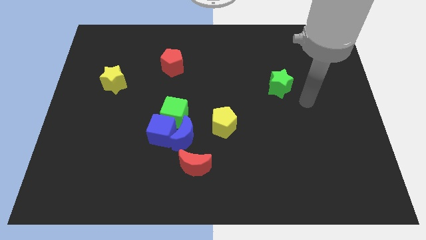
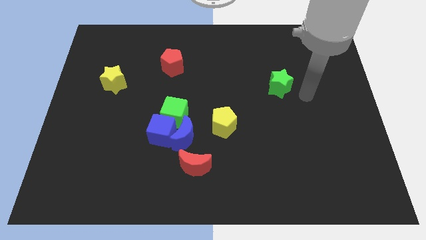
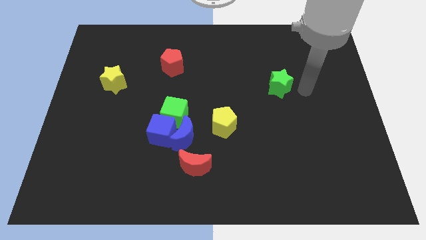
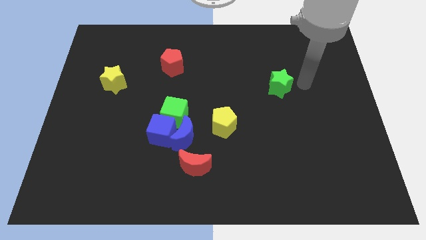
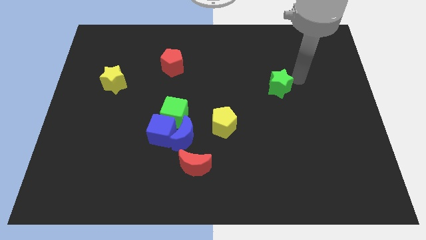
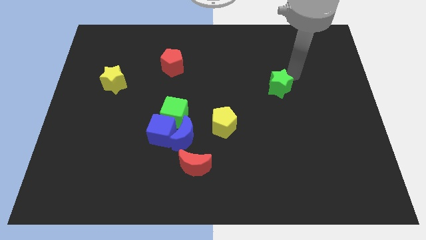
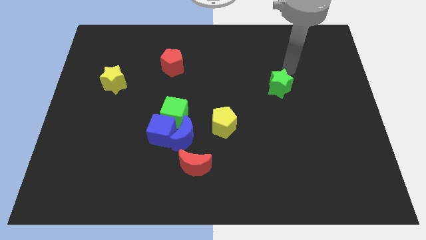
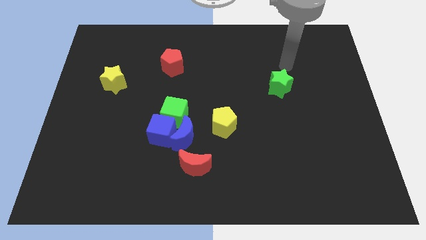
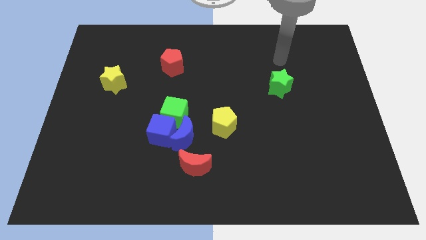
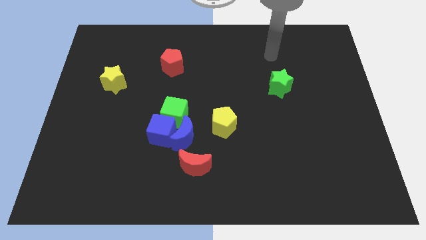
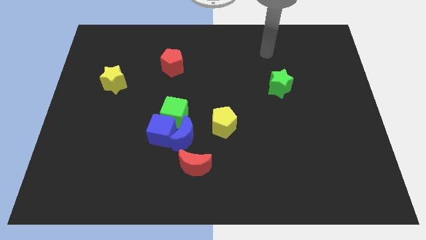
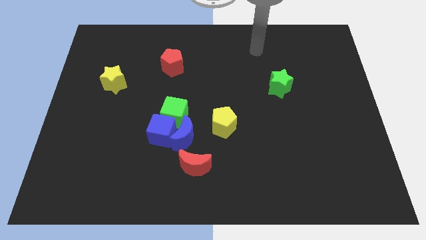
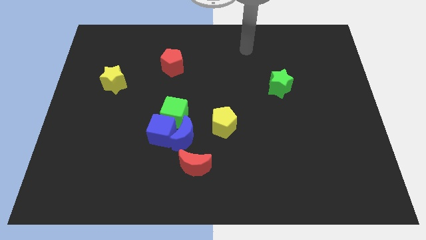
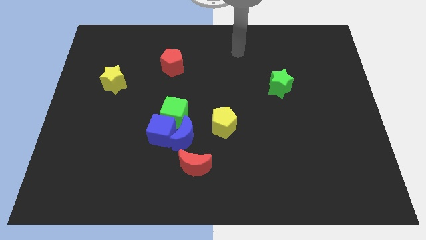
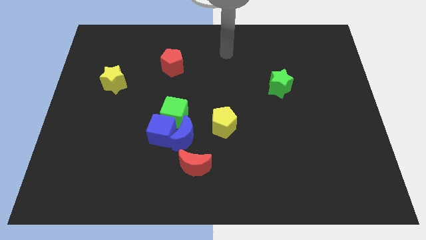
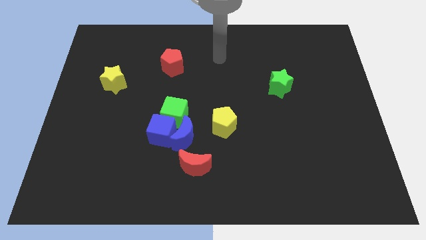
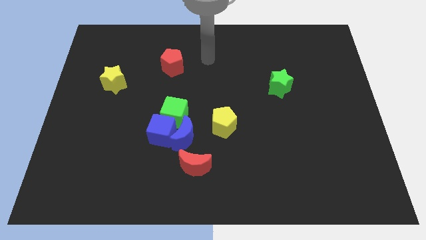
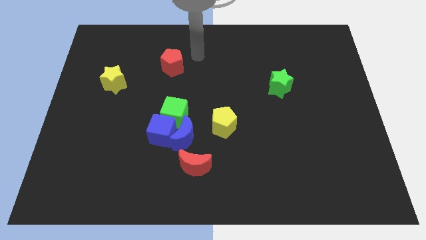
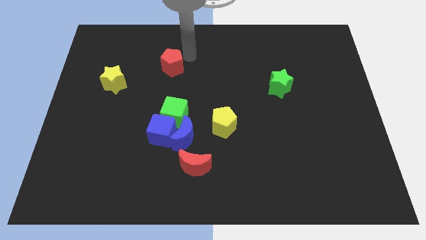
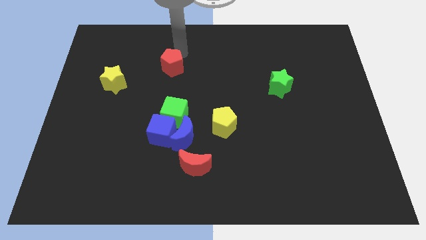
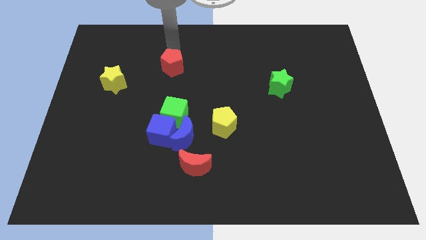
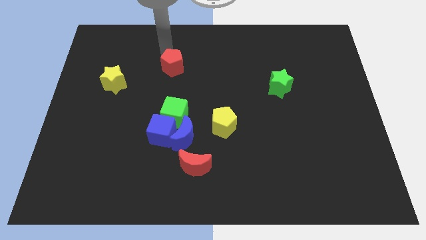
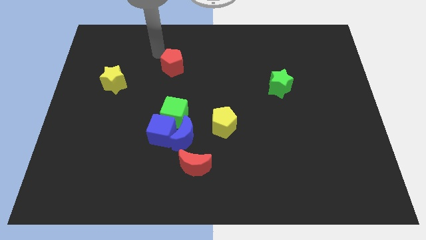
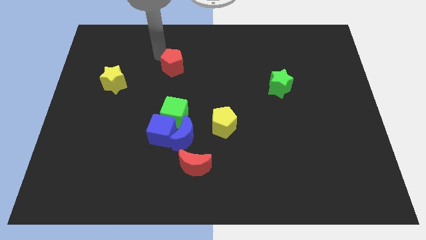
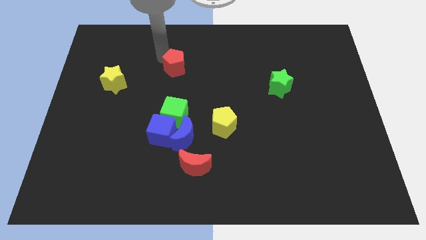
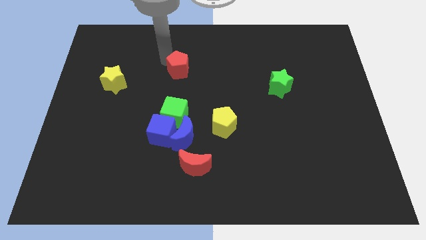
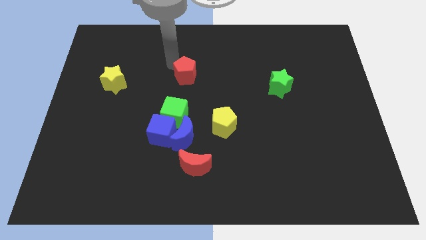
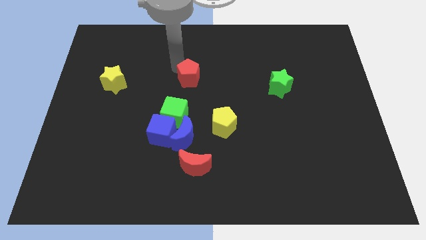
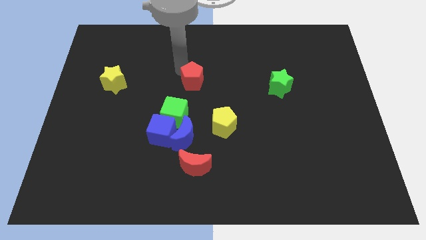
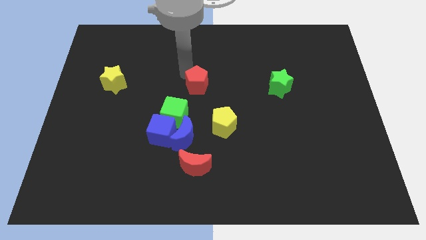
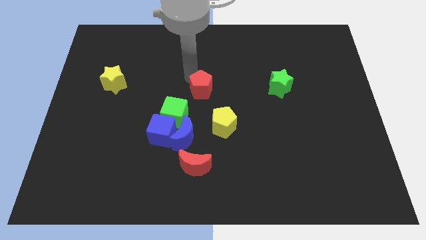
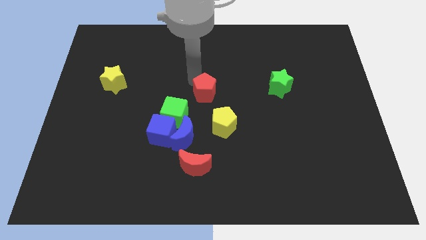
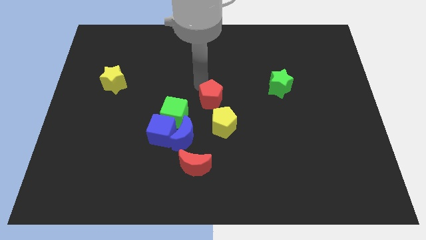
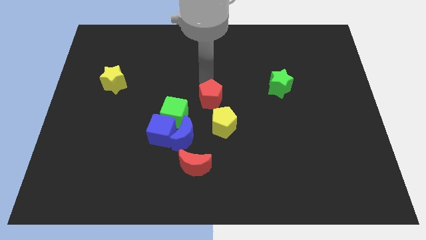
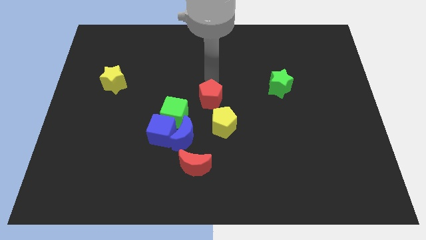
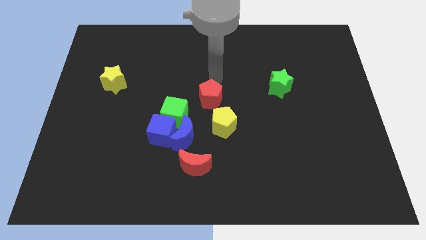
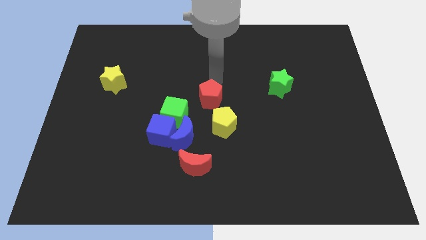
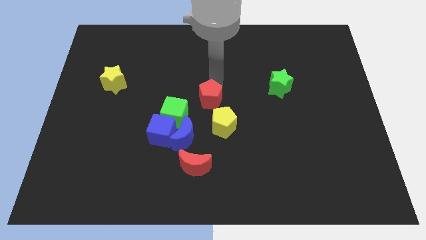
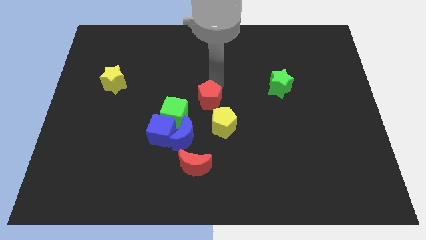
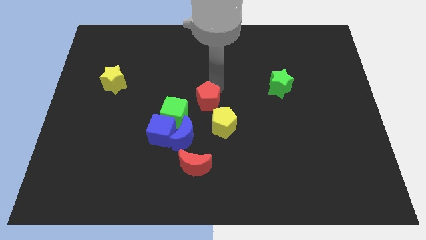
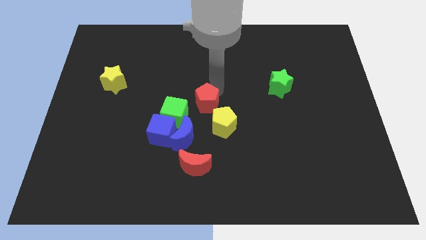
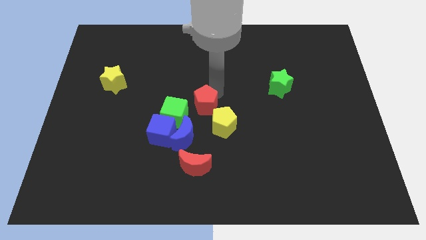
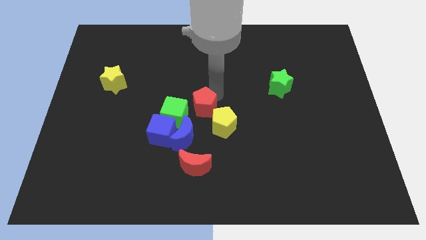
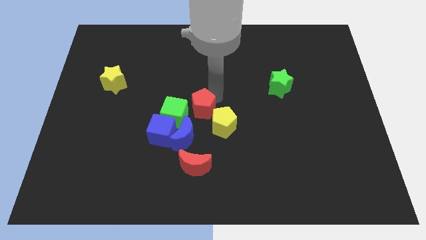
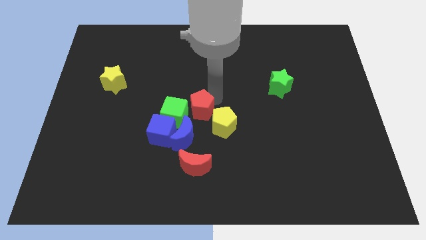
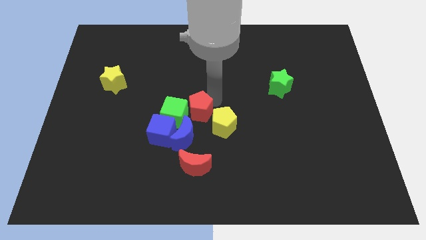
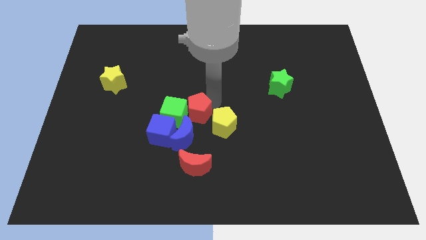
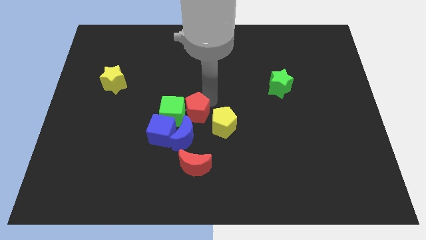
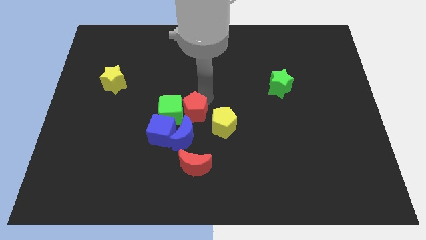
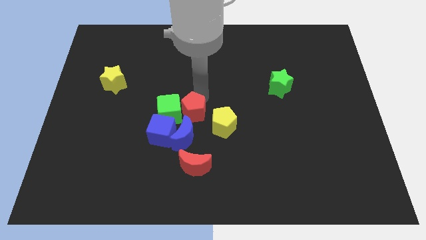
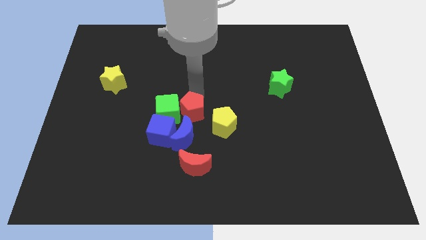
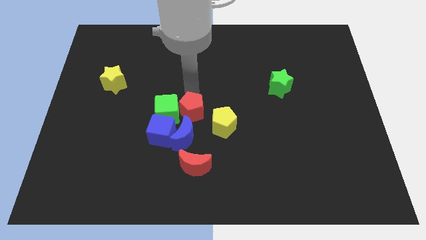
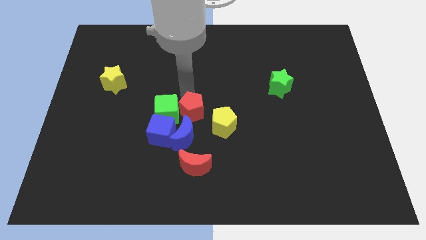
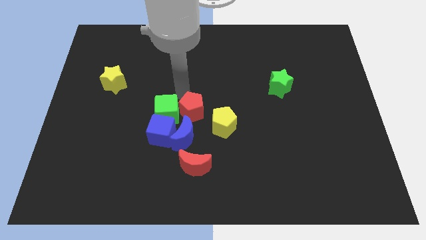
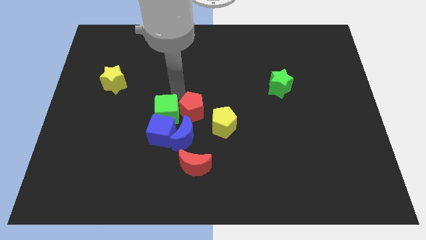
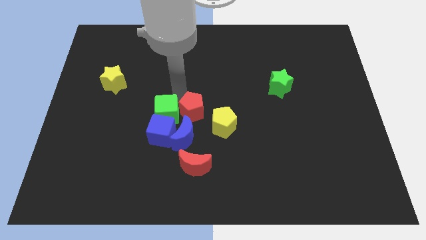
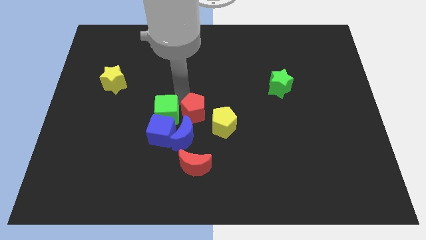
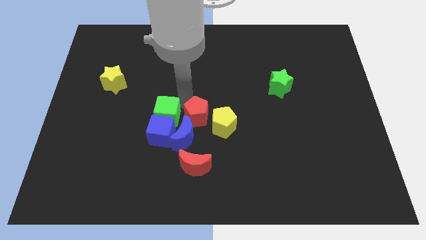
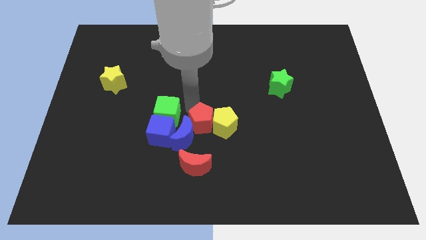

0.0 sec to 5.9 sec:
slide the red pentagon to the bottom left of the yellow pentagon

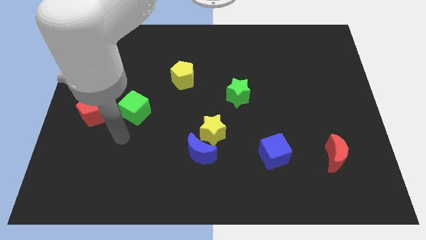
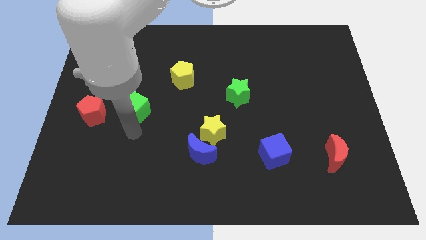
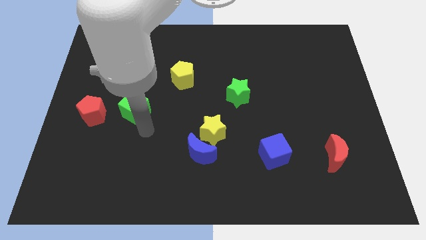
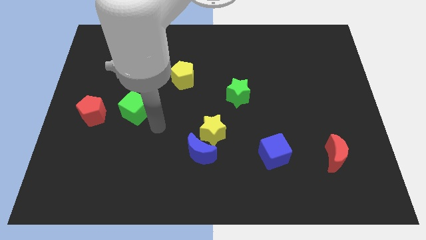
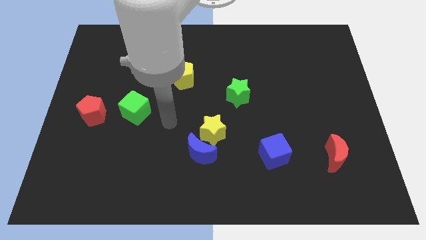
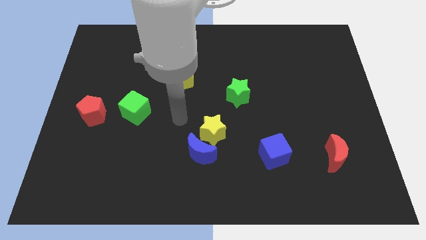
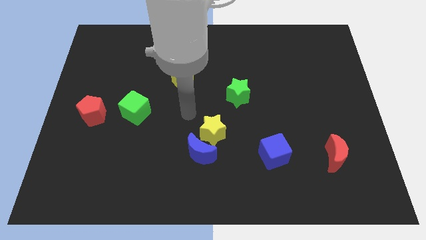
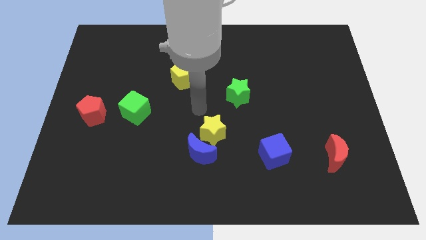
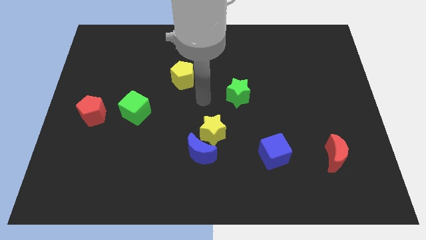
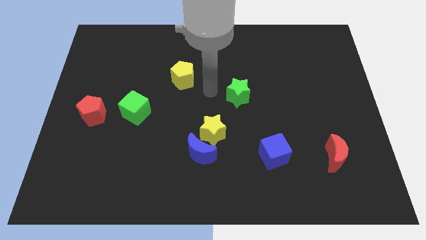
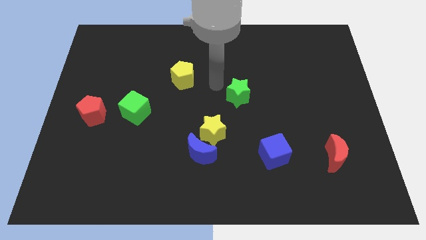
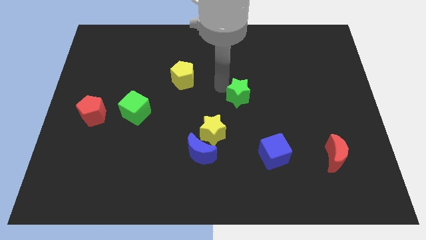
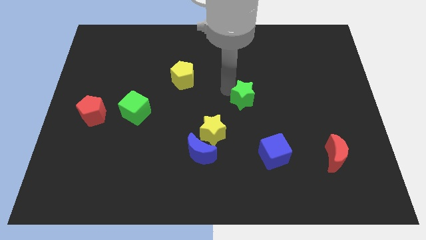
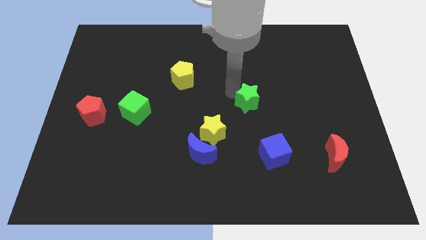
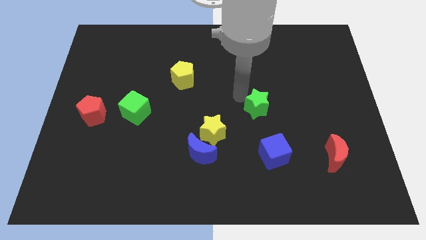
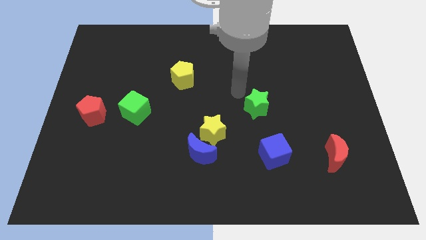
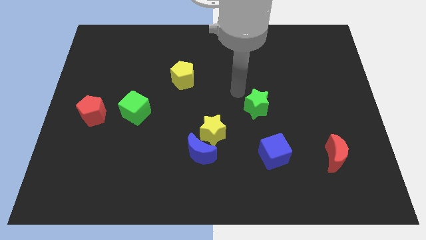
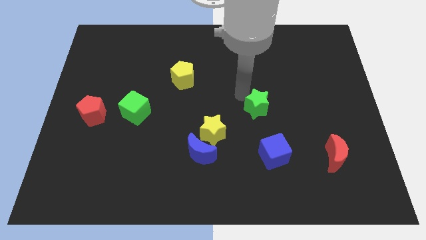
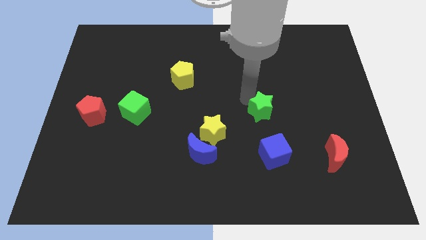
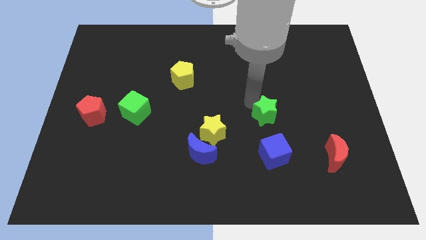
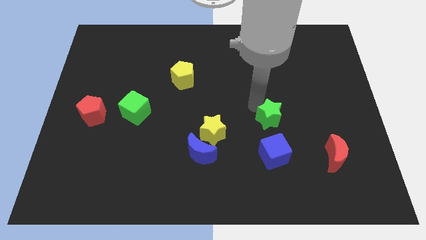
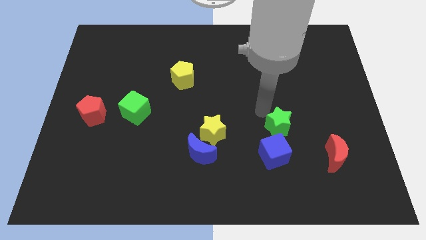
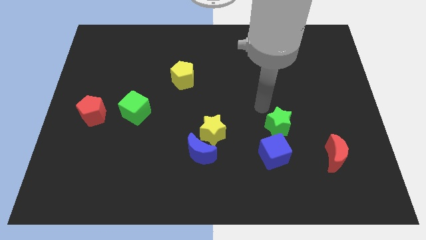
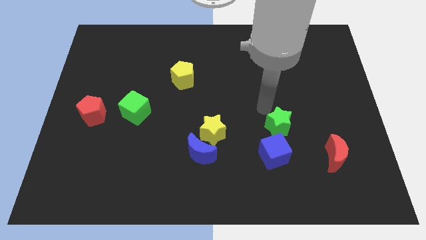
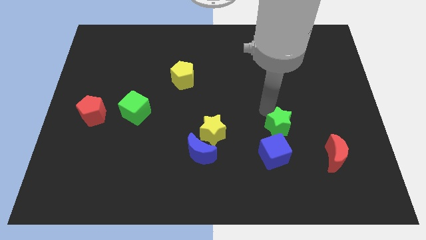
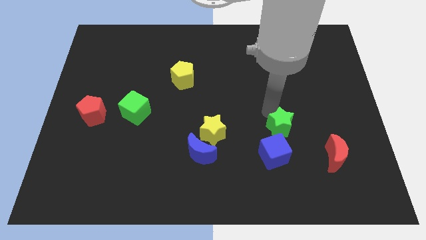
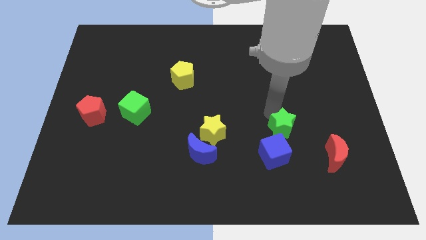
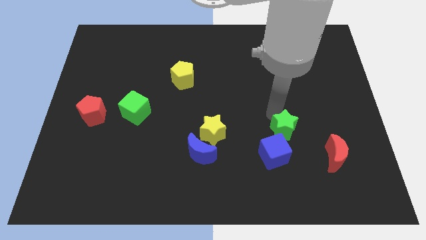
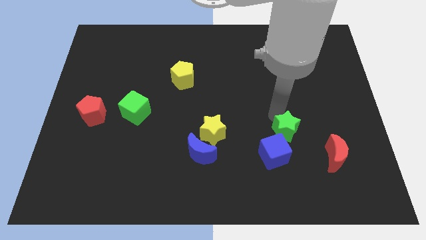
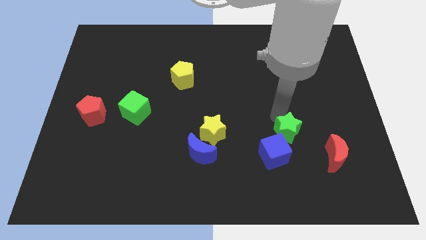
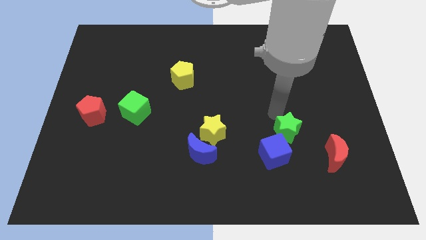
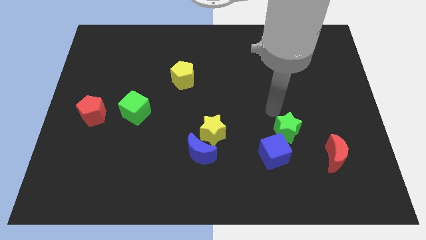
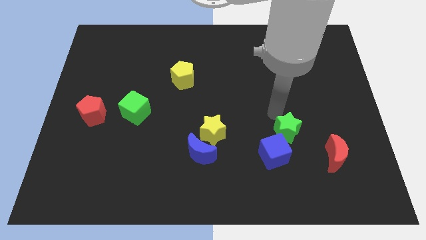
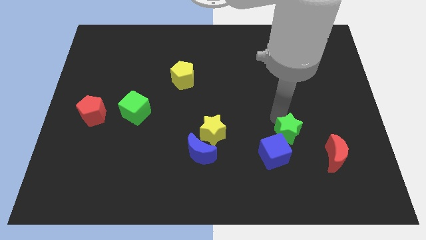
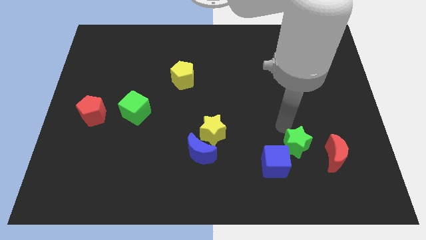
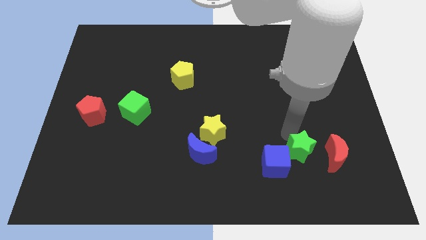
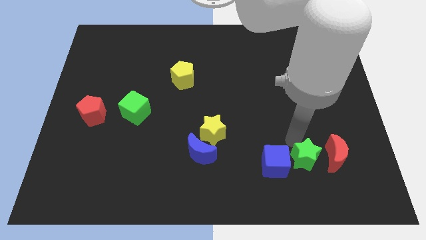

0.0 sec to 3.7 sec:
move the green star to the bottom left of the red moon
